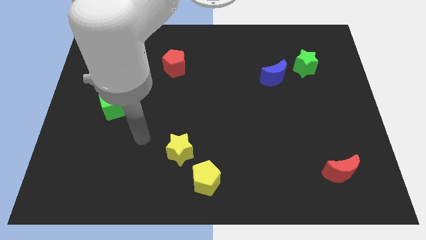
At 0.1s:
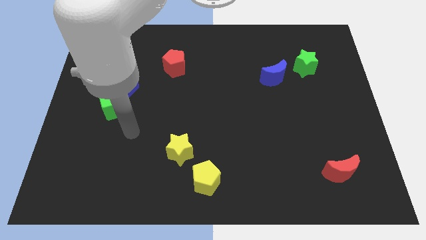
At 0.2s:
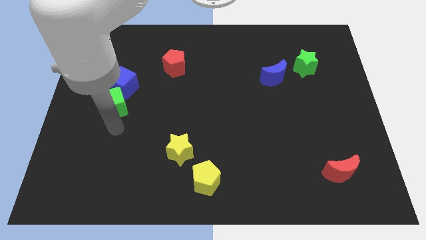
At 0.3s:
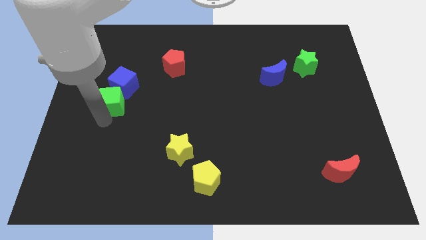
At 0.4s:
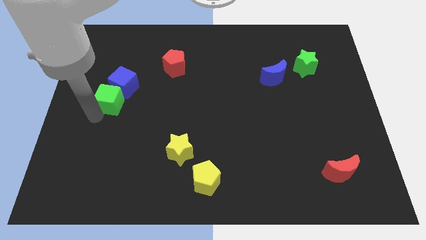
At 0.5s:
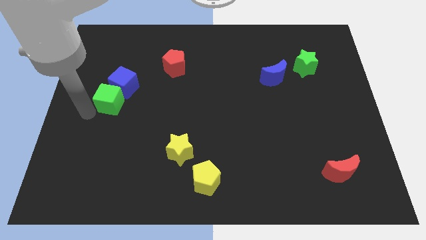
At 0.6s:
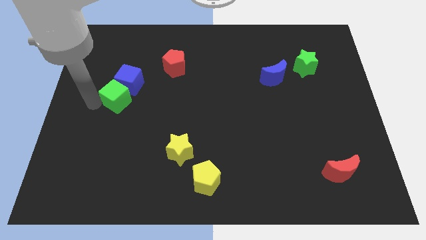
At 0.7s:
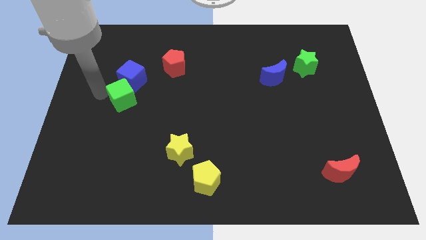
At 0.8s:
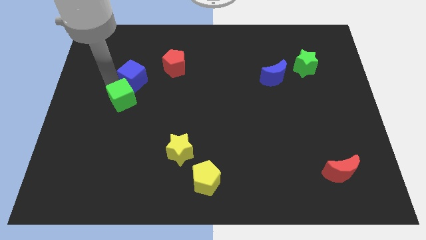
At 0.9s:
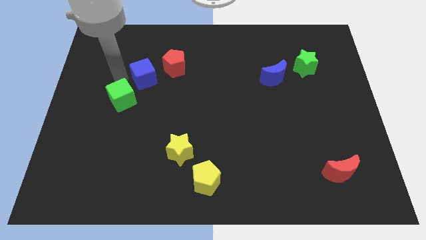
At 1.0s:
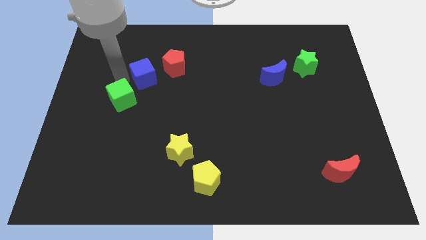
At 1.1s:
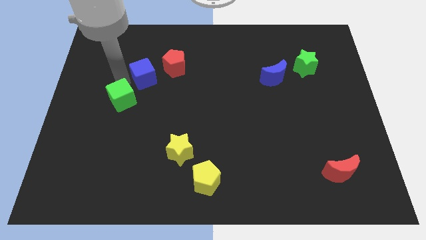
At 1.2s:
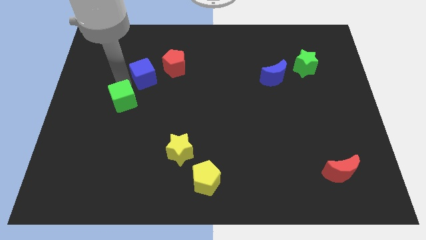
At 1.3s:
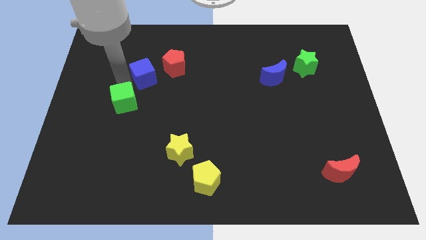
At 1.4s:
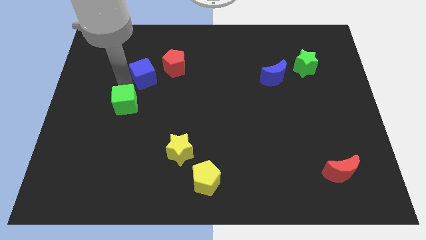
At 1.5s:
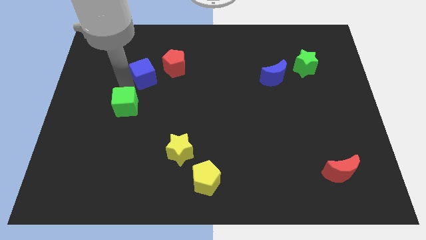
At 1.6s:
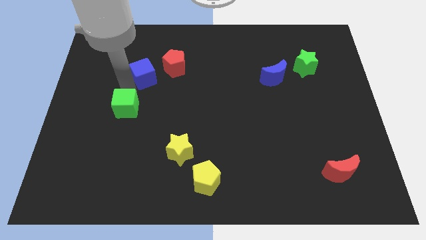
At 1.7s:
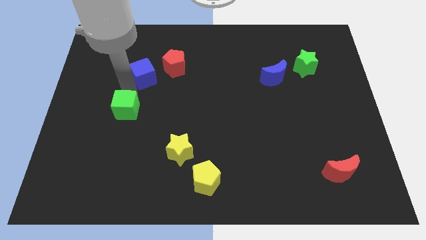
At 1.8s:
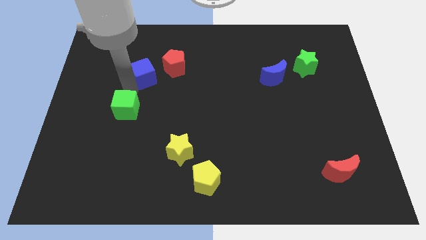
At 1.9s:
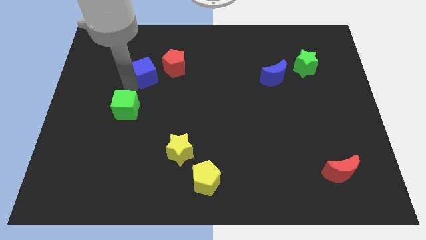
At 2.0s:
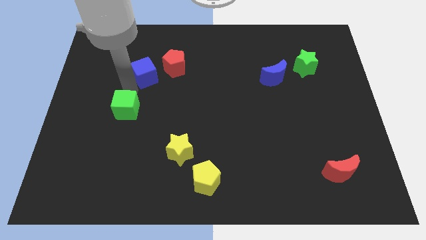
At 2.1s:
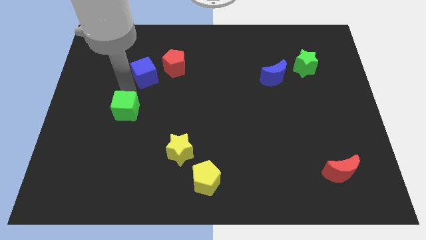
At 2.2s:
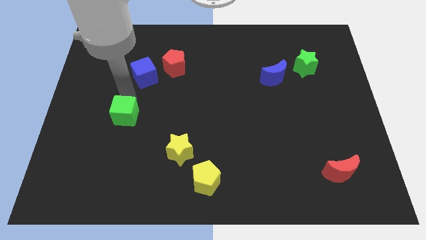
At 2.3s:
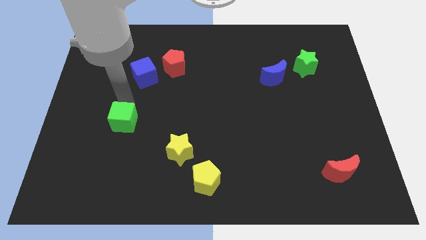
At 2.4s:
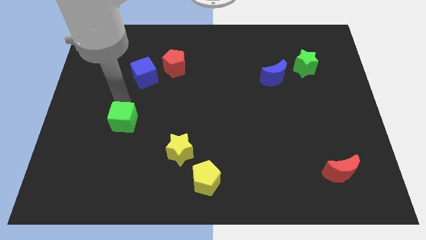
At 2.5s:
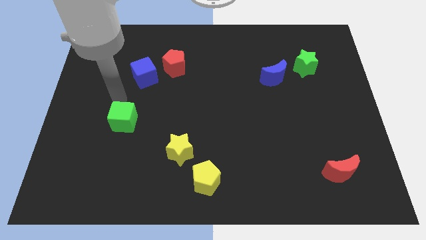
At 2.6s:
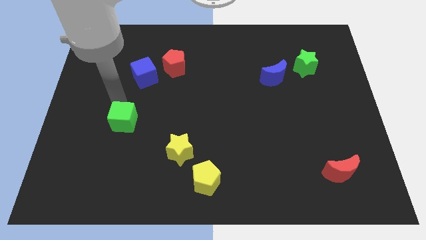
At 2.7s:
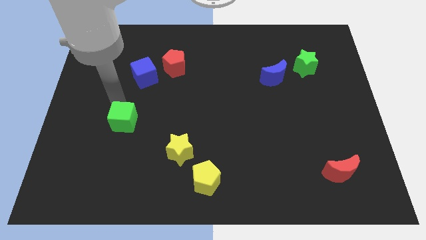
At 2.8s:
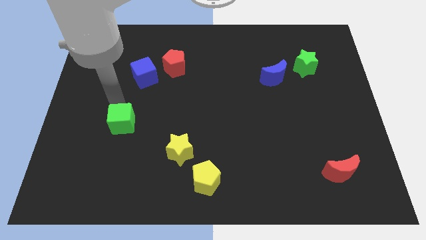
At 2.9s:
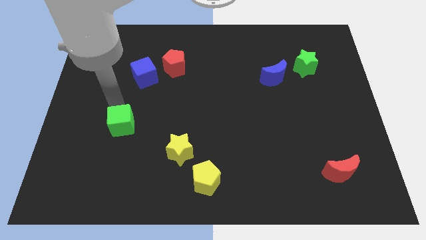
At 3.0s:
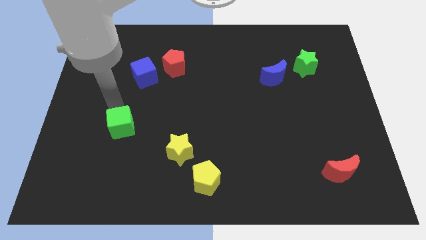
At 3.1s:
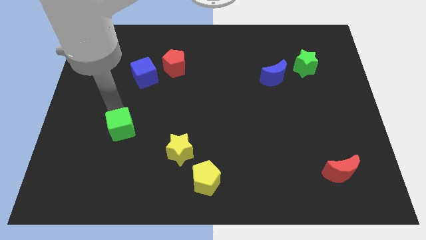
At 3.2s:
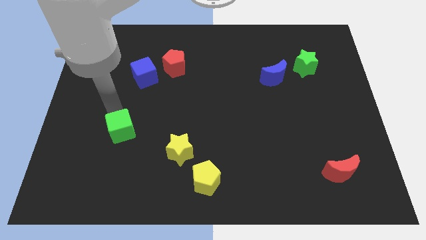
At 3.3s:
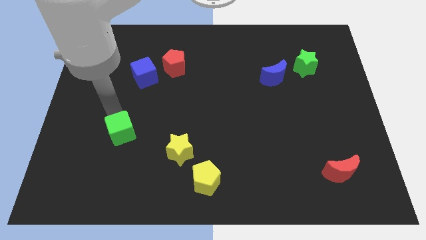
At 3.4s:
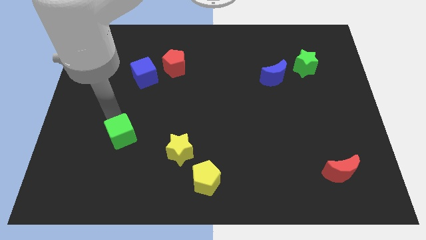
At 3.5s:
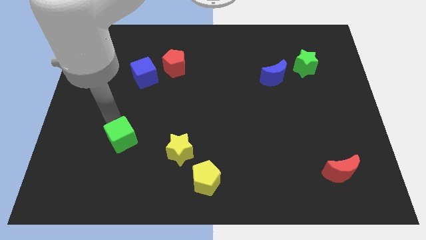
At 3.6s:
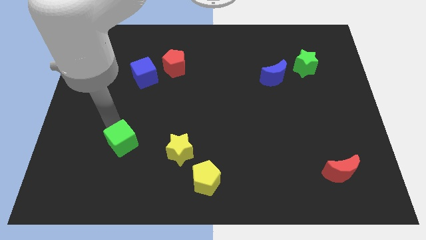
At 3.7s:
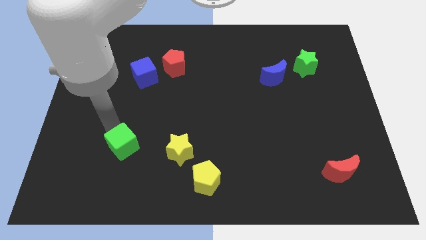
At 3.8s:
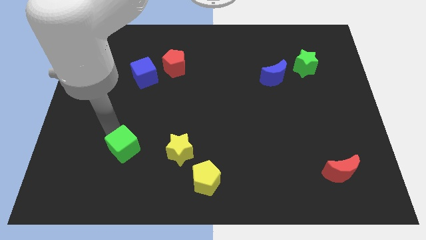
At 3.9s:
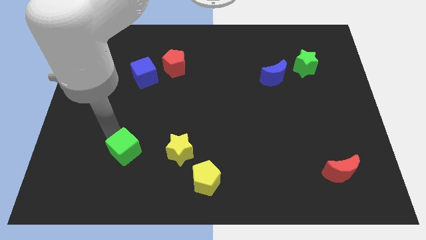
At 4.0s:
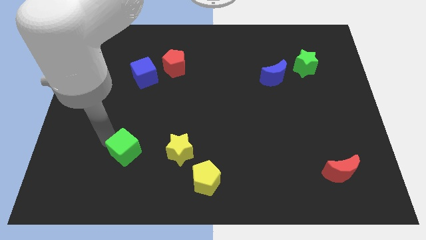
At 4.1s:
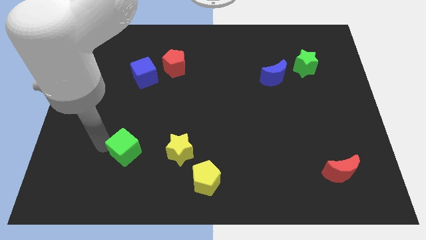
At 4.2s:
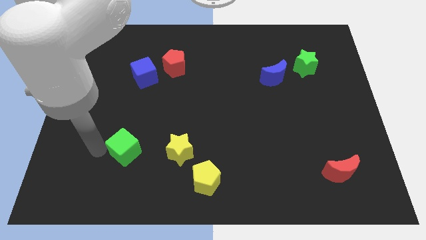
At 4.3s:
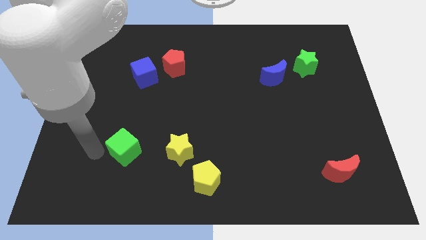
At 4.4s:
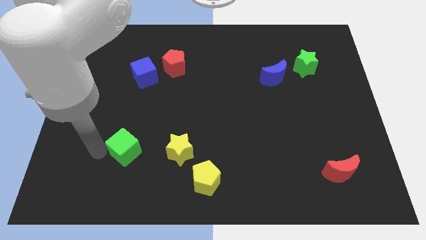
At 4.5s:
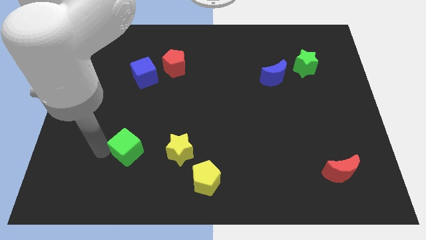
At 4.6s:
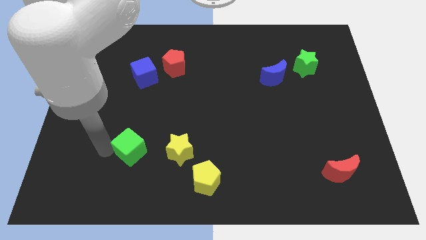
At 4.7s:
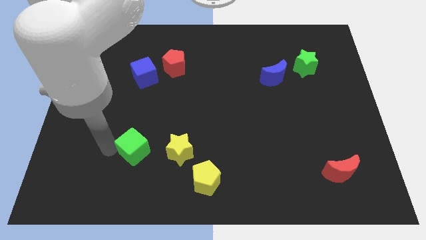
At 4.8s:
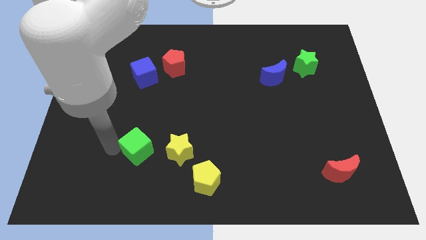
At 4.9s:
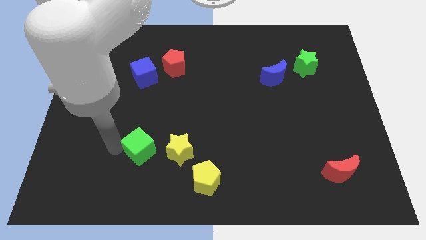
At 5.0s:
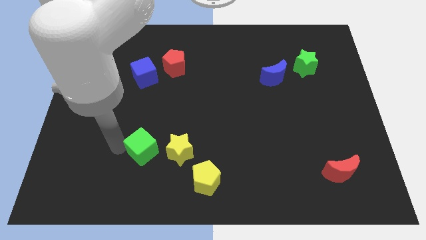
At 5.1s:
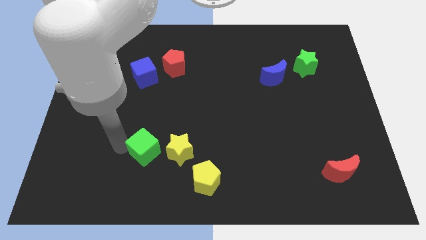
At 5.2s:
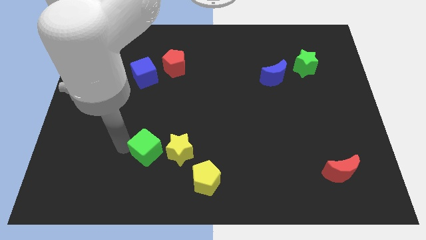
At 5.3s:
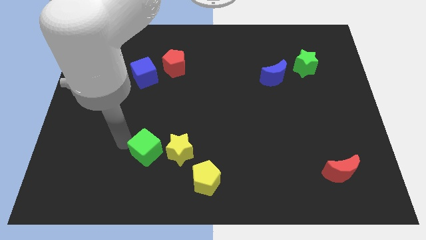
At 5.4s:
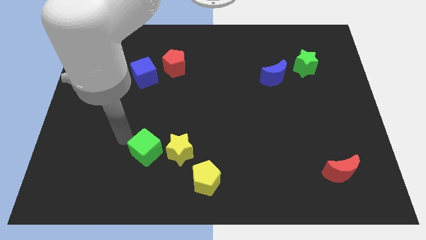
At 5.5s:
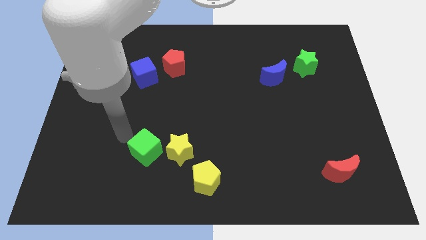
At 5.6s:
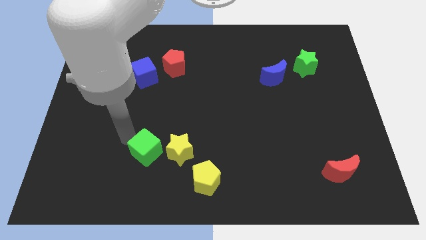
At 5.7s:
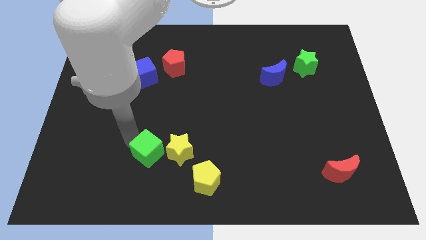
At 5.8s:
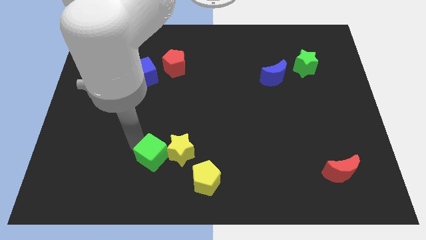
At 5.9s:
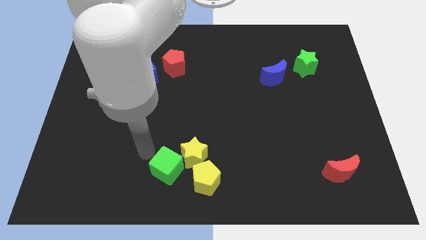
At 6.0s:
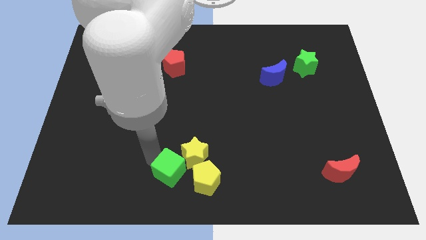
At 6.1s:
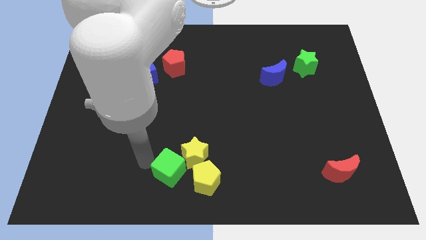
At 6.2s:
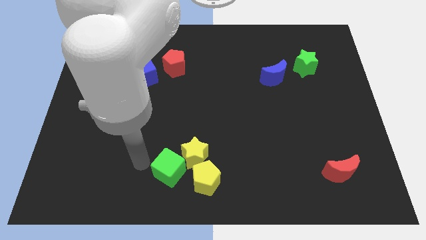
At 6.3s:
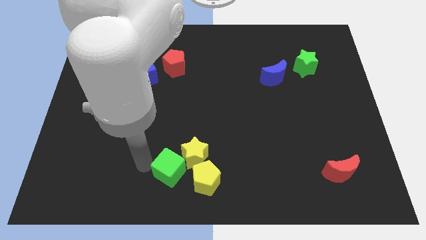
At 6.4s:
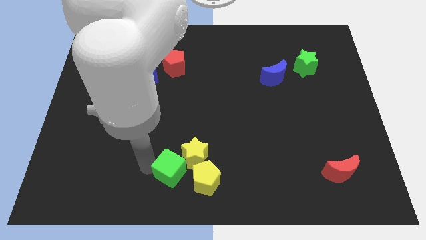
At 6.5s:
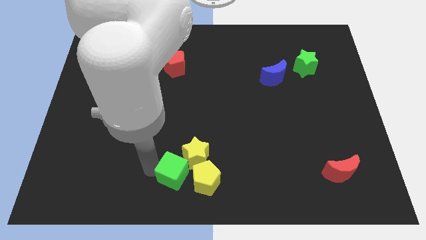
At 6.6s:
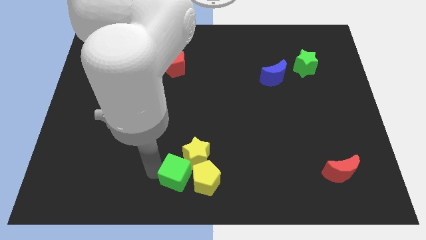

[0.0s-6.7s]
put the green cube towards the yellow pentagon
